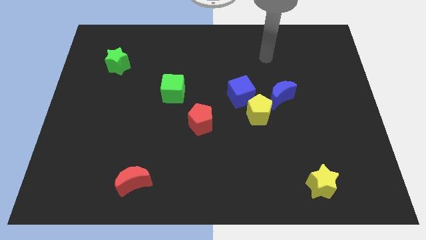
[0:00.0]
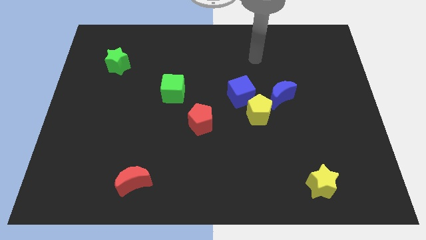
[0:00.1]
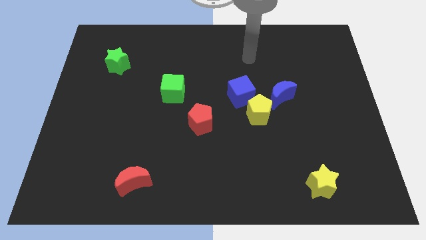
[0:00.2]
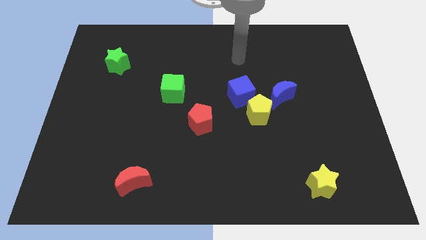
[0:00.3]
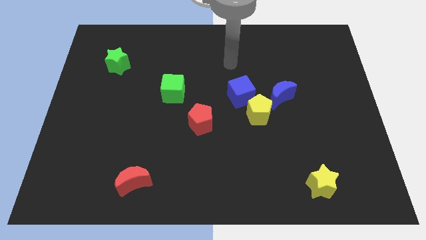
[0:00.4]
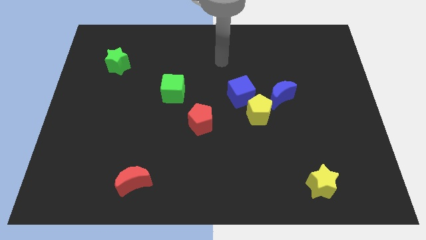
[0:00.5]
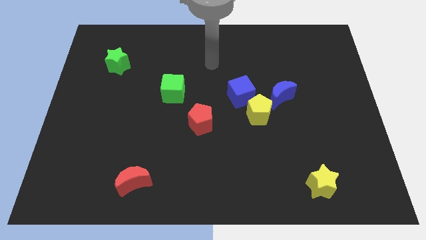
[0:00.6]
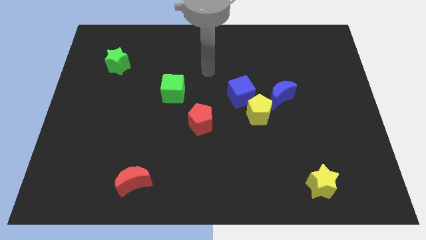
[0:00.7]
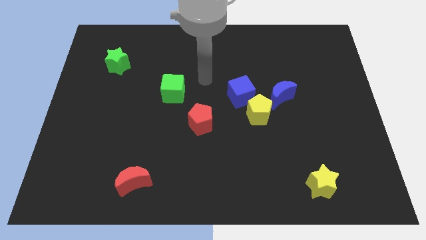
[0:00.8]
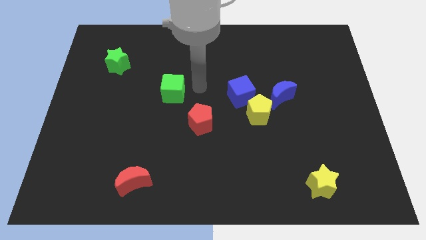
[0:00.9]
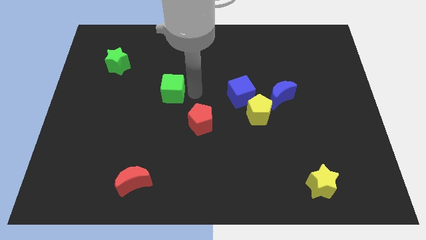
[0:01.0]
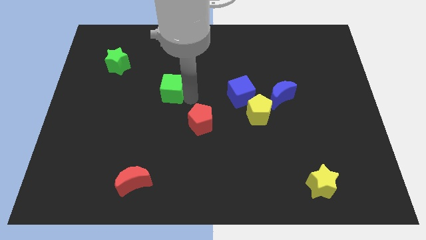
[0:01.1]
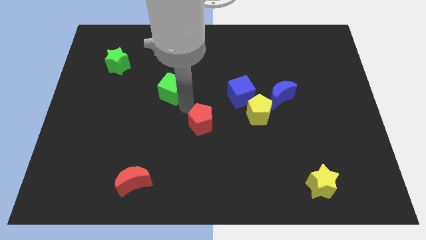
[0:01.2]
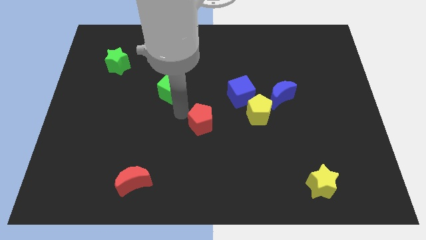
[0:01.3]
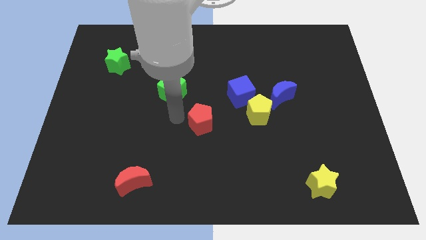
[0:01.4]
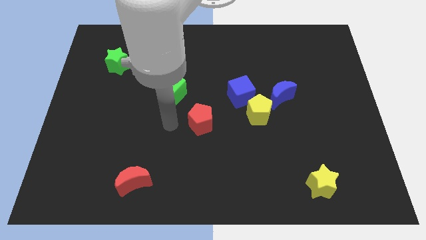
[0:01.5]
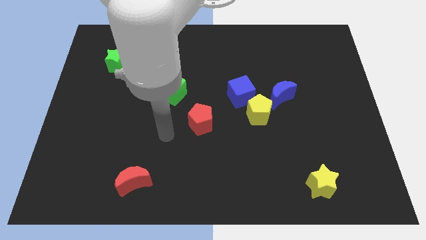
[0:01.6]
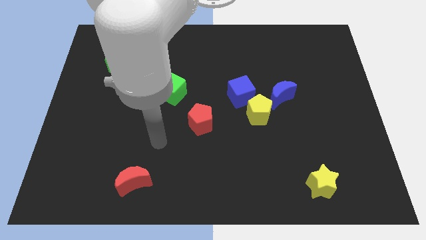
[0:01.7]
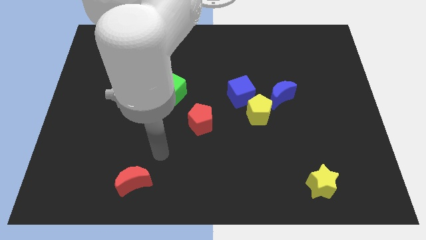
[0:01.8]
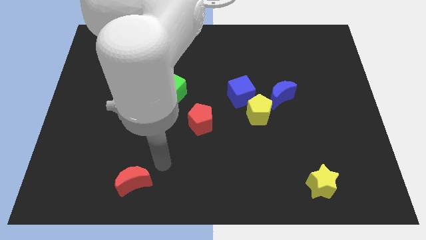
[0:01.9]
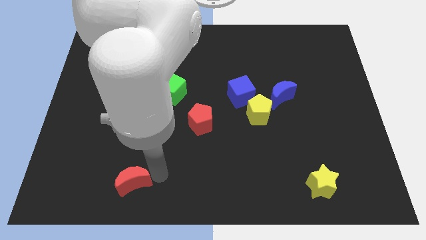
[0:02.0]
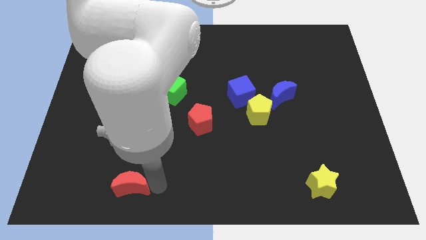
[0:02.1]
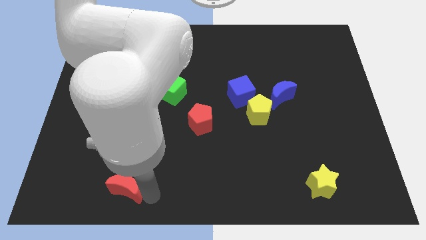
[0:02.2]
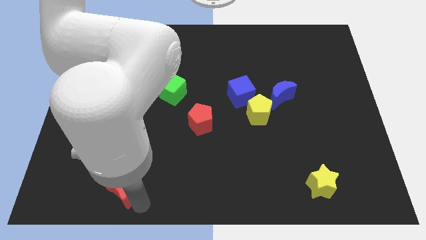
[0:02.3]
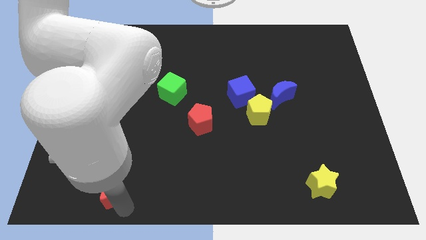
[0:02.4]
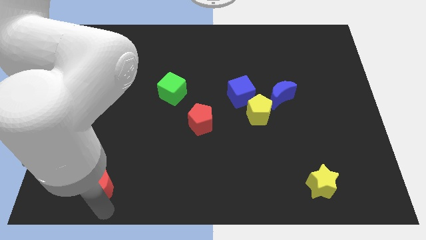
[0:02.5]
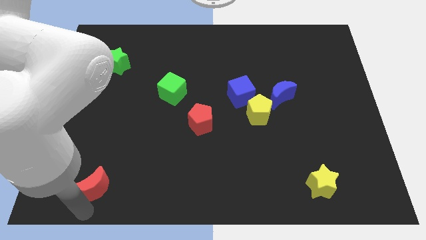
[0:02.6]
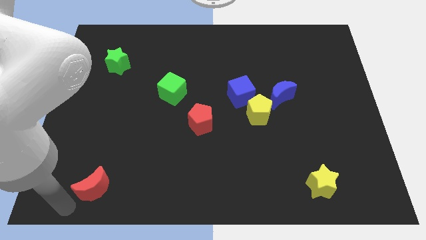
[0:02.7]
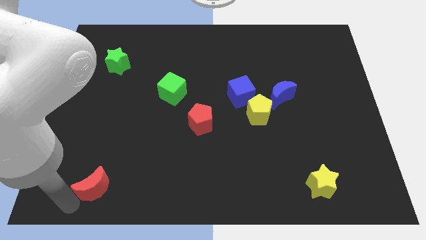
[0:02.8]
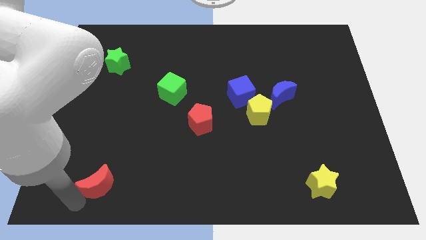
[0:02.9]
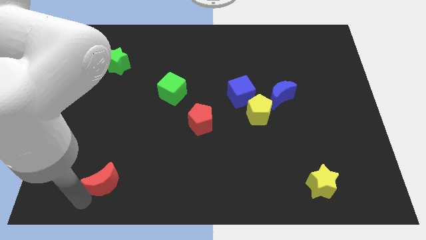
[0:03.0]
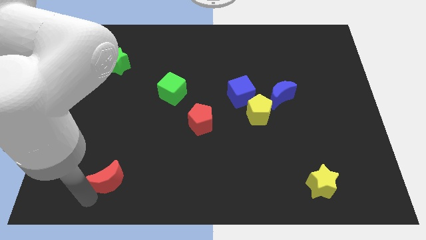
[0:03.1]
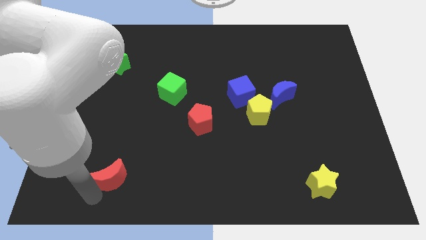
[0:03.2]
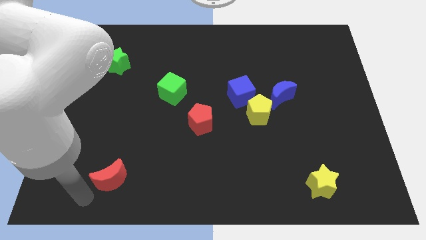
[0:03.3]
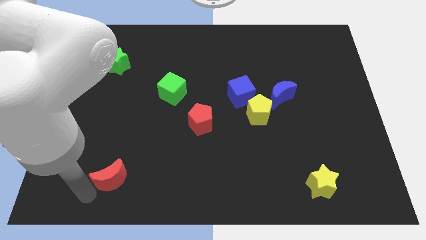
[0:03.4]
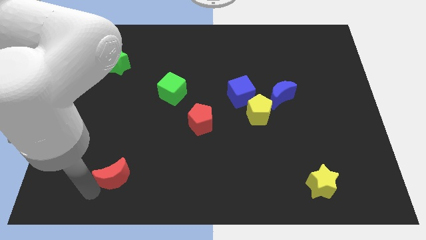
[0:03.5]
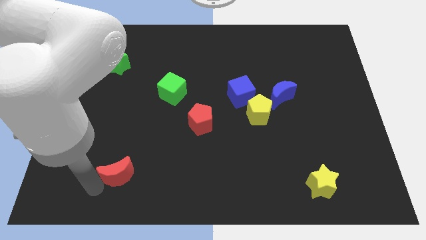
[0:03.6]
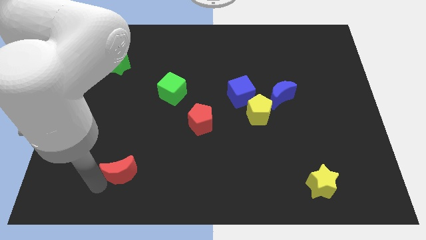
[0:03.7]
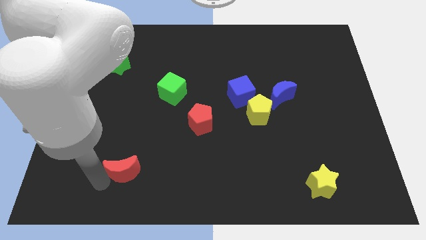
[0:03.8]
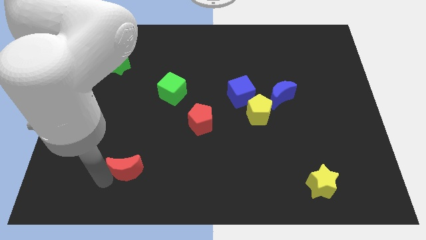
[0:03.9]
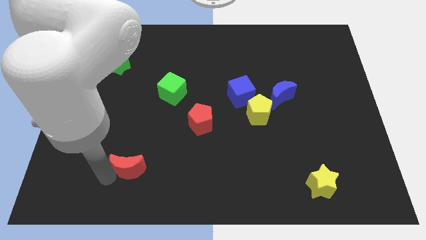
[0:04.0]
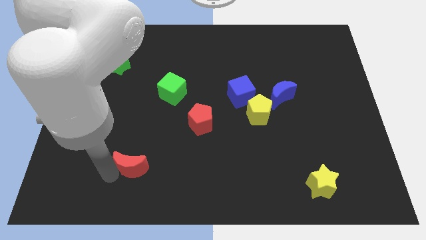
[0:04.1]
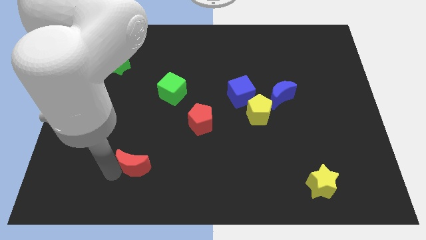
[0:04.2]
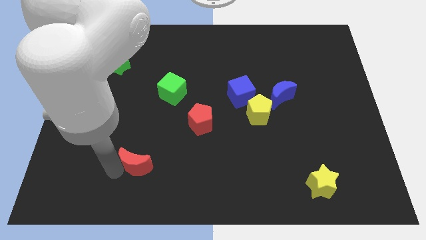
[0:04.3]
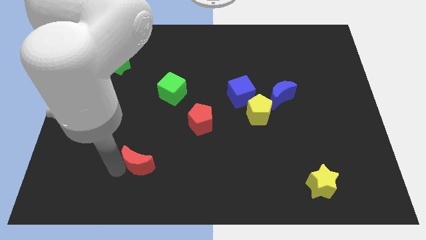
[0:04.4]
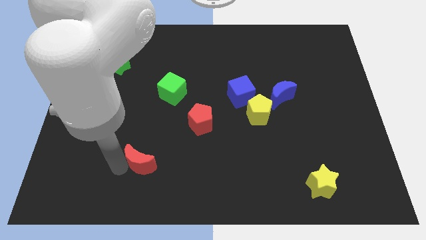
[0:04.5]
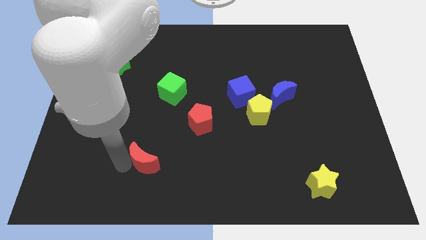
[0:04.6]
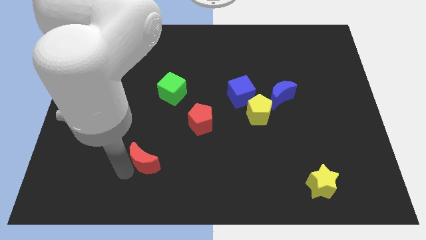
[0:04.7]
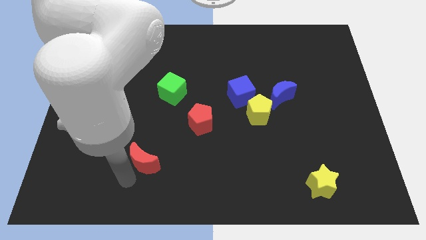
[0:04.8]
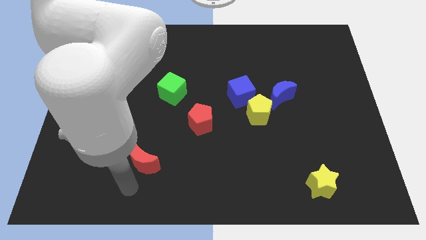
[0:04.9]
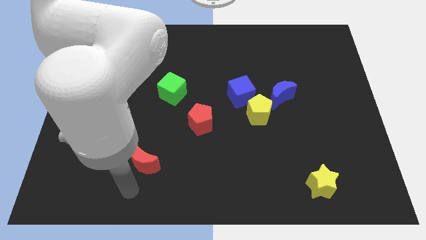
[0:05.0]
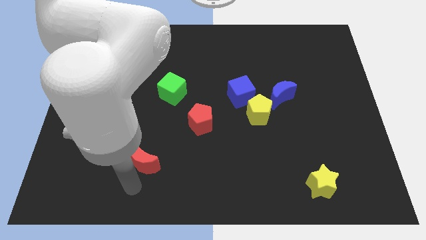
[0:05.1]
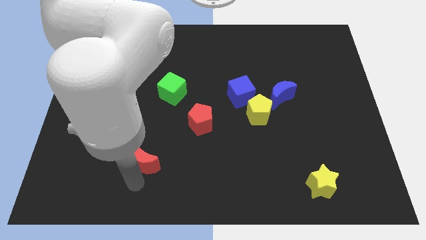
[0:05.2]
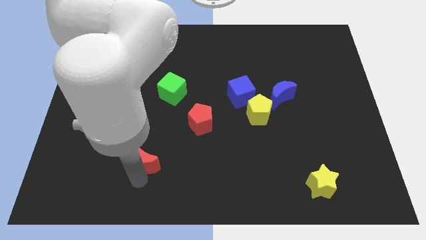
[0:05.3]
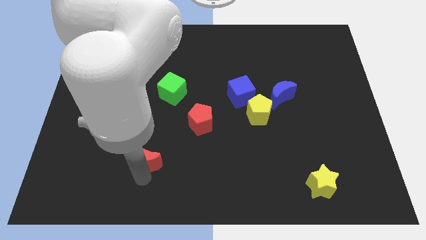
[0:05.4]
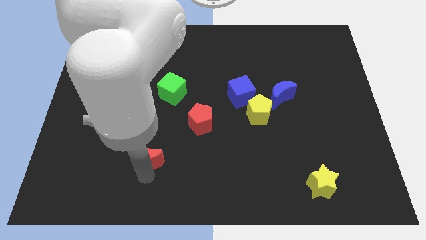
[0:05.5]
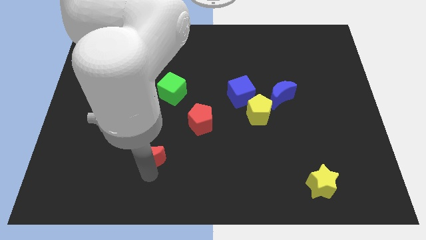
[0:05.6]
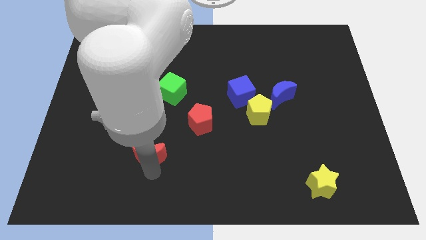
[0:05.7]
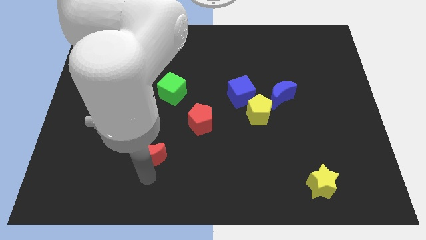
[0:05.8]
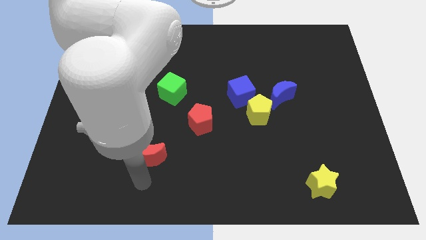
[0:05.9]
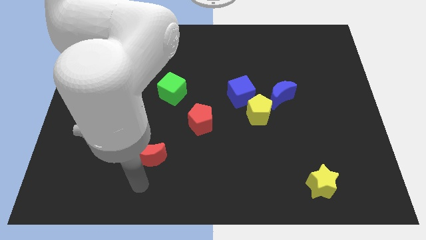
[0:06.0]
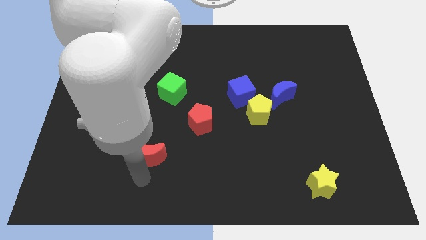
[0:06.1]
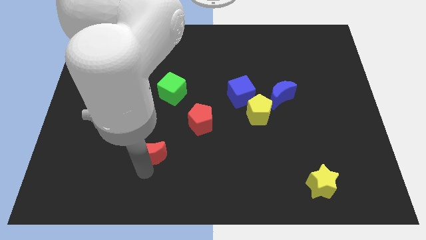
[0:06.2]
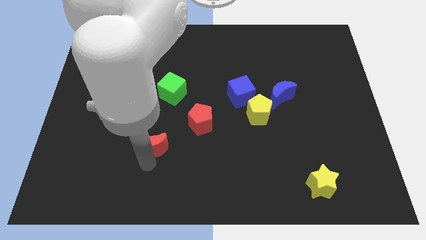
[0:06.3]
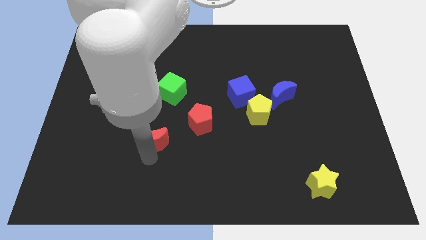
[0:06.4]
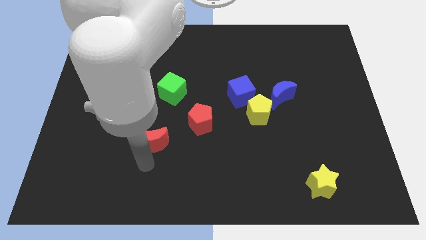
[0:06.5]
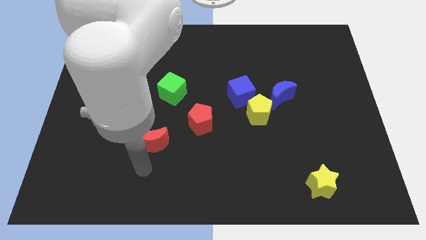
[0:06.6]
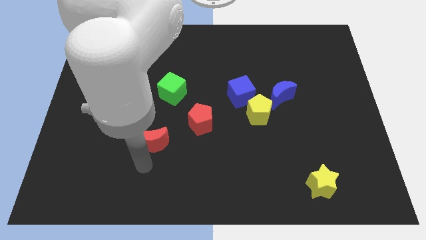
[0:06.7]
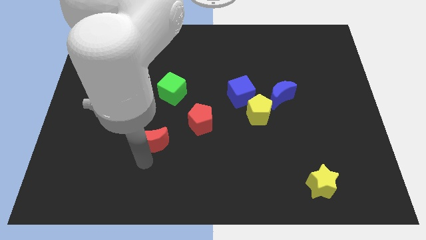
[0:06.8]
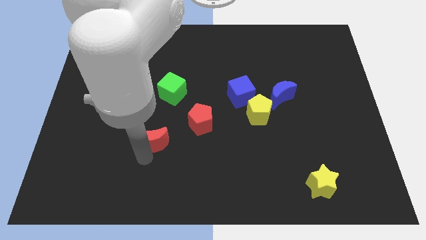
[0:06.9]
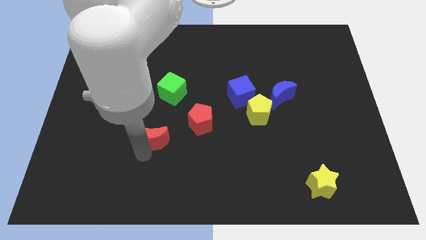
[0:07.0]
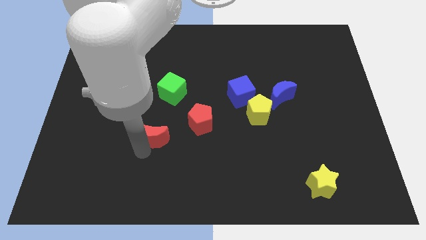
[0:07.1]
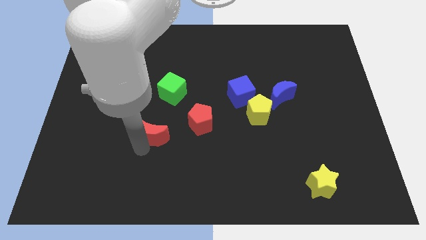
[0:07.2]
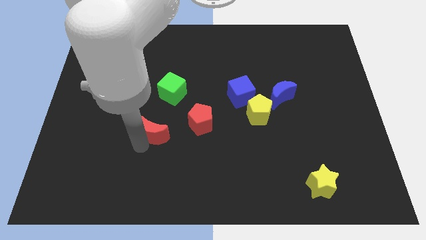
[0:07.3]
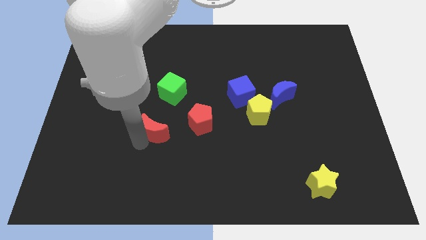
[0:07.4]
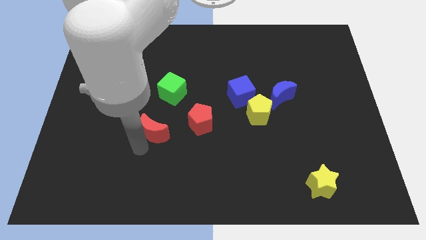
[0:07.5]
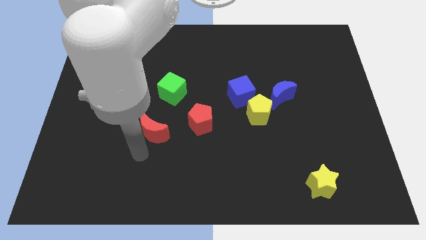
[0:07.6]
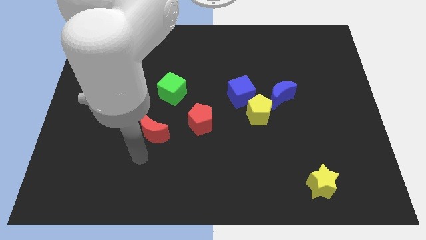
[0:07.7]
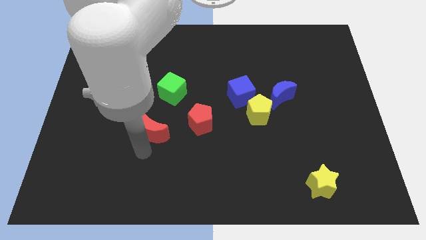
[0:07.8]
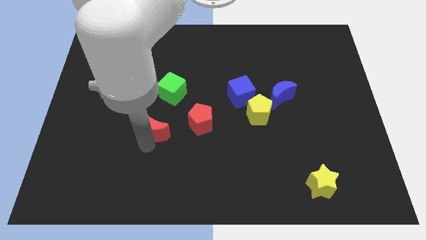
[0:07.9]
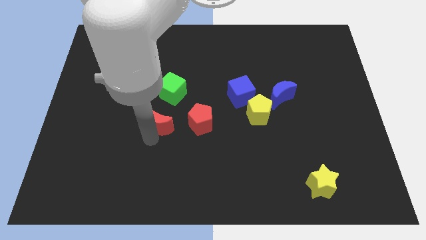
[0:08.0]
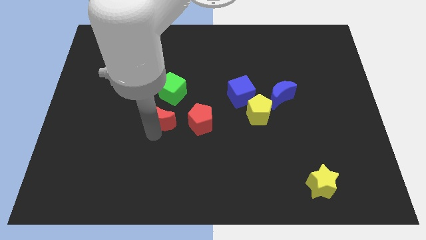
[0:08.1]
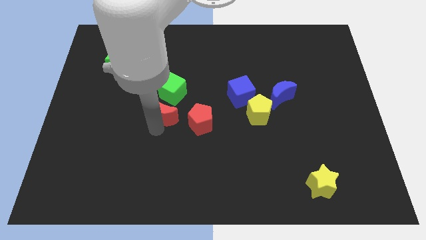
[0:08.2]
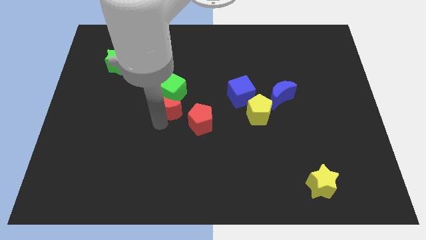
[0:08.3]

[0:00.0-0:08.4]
push the red moon towards the green cube
